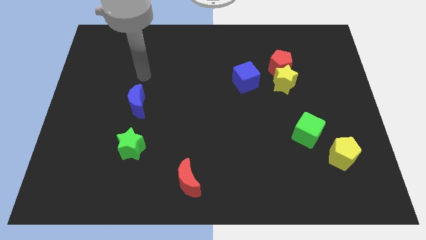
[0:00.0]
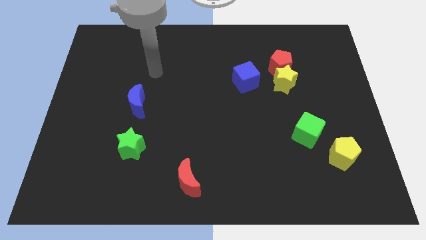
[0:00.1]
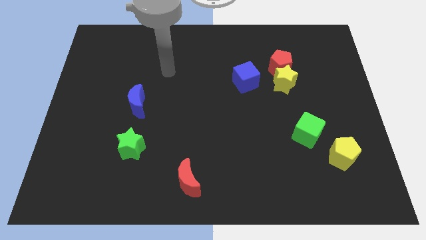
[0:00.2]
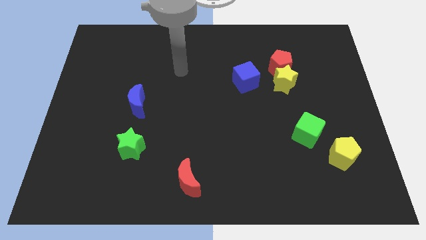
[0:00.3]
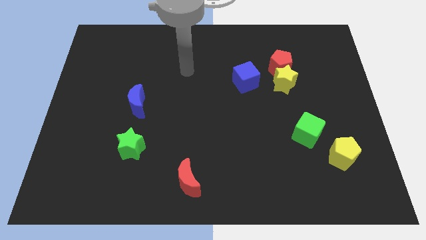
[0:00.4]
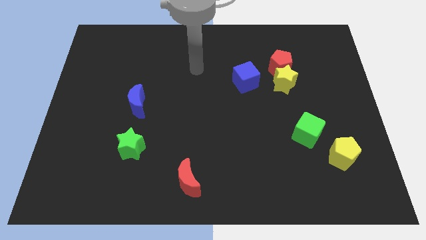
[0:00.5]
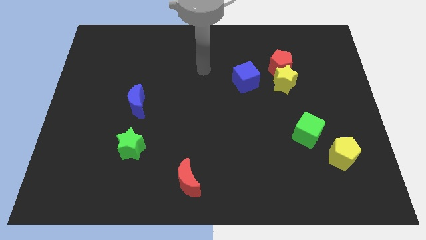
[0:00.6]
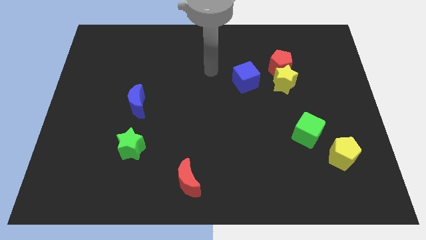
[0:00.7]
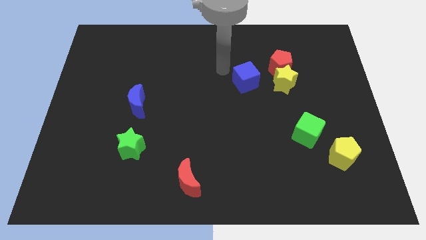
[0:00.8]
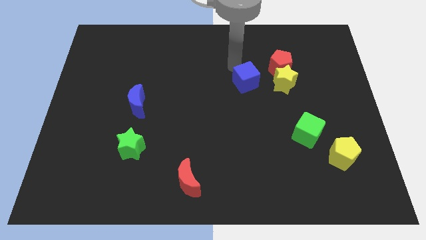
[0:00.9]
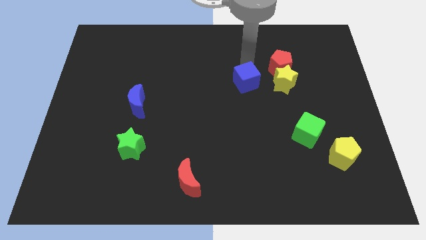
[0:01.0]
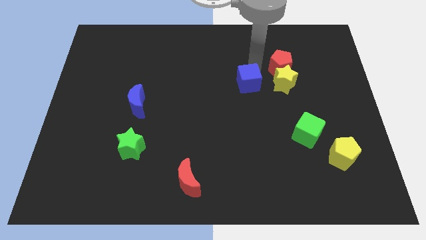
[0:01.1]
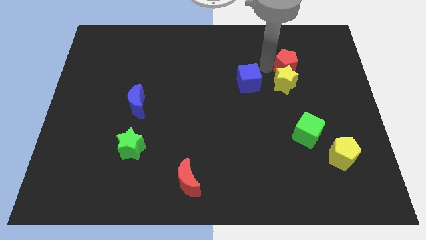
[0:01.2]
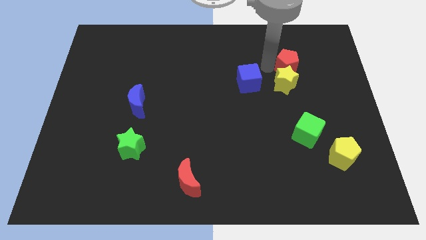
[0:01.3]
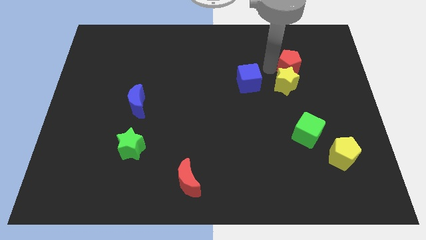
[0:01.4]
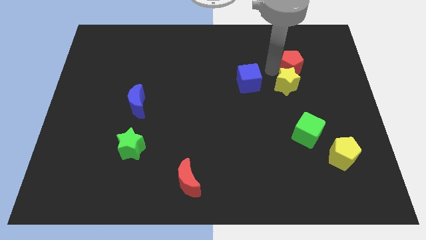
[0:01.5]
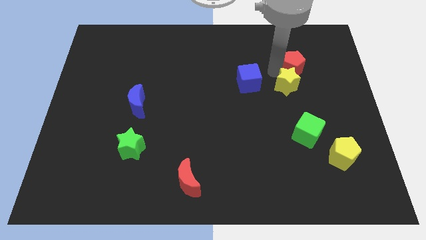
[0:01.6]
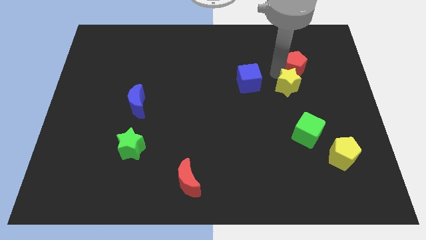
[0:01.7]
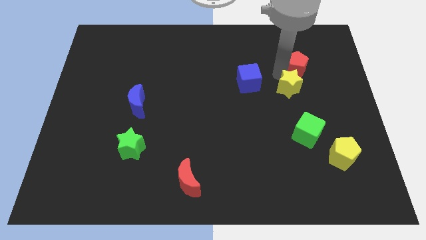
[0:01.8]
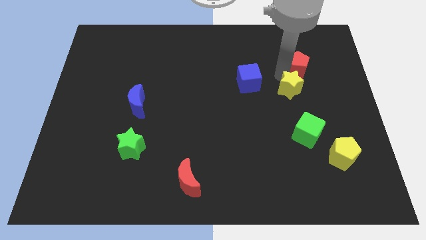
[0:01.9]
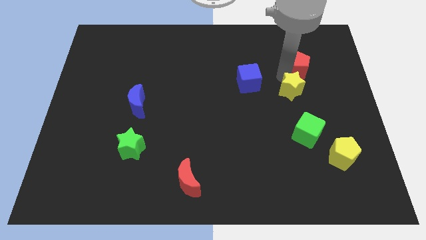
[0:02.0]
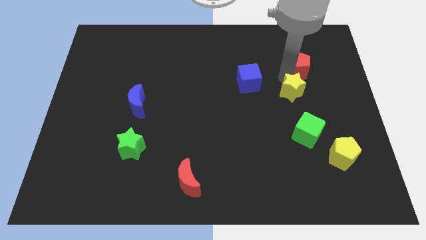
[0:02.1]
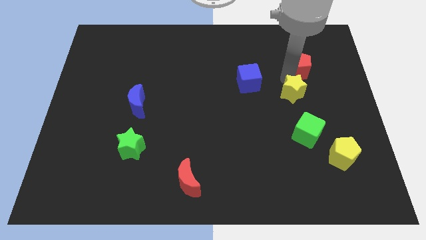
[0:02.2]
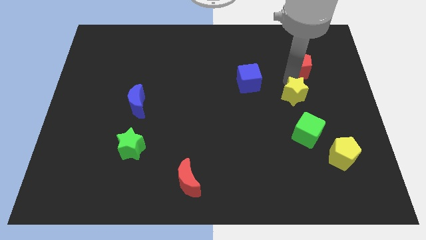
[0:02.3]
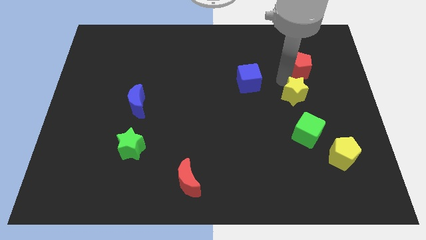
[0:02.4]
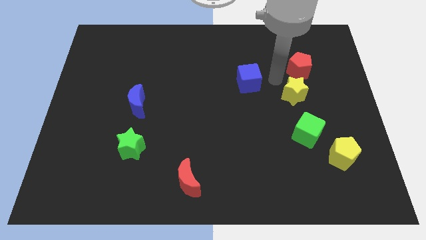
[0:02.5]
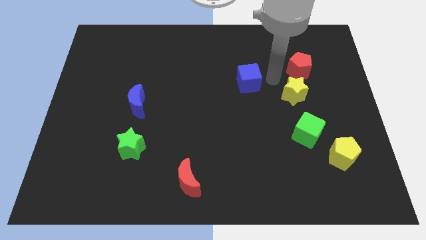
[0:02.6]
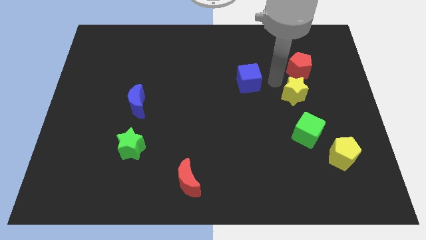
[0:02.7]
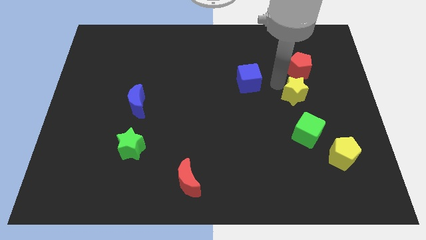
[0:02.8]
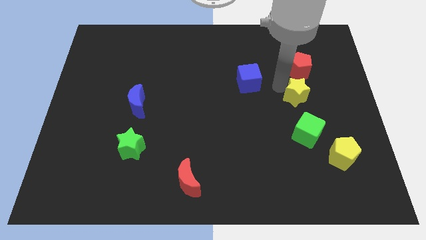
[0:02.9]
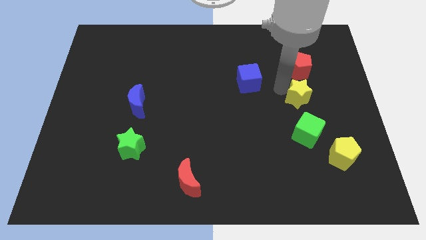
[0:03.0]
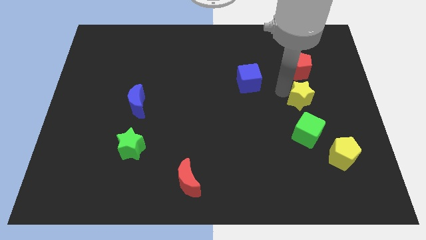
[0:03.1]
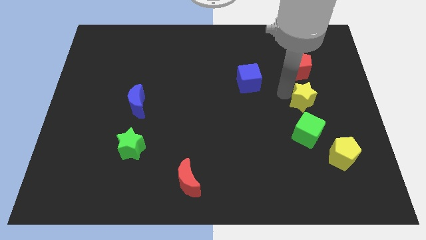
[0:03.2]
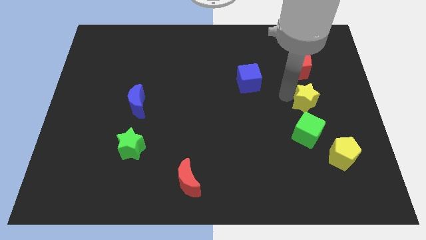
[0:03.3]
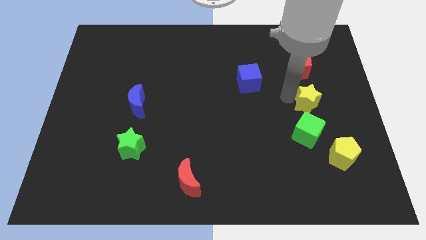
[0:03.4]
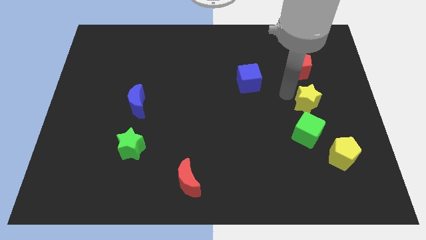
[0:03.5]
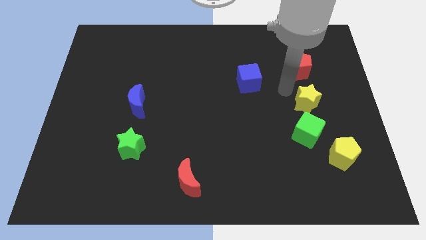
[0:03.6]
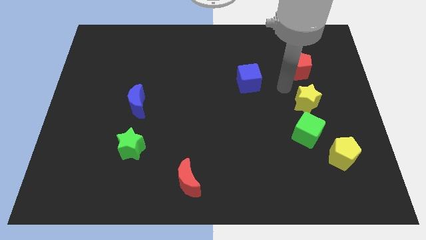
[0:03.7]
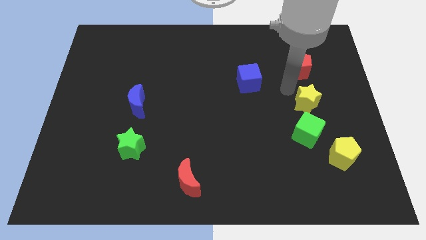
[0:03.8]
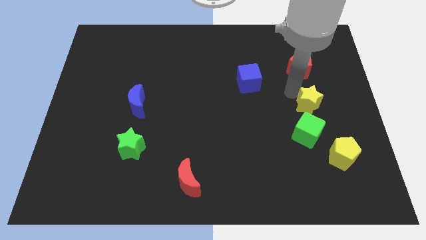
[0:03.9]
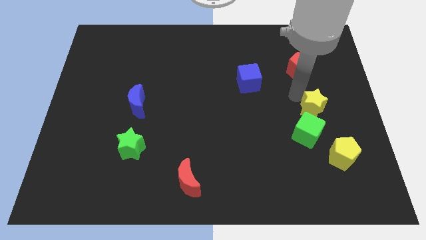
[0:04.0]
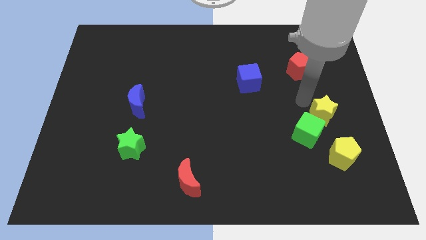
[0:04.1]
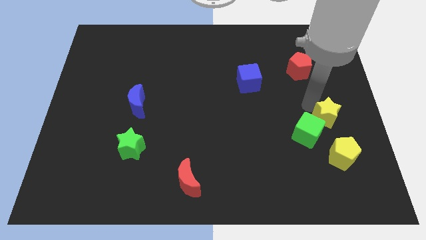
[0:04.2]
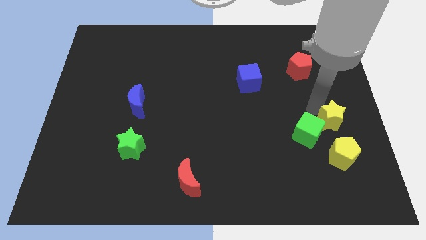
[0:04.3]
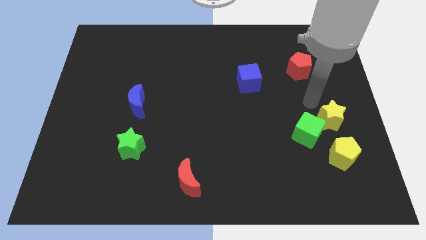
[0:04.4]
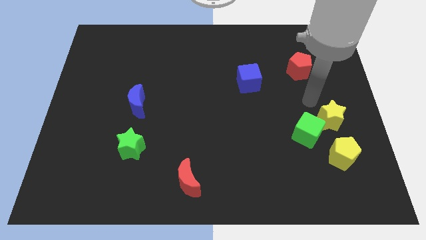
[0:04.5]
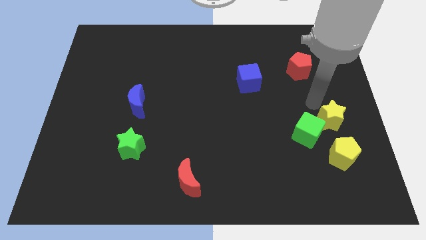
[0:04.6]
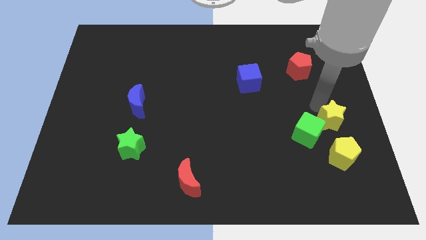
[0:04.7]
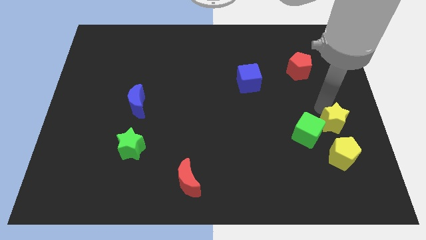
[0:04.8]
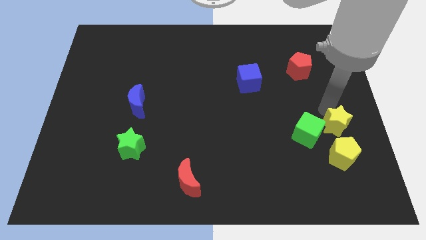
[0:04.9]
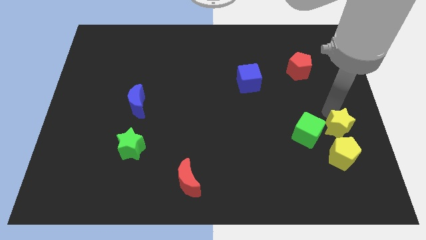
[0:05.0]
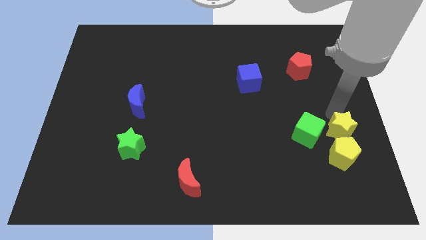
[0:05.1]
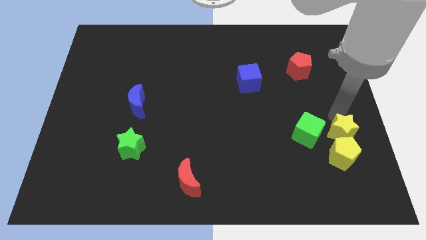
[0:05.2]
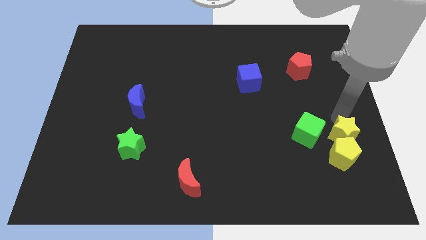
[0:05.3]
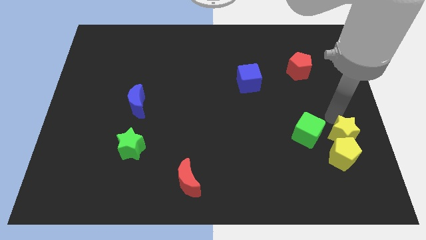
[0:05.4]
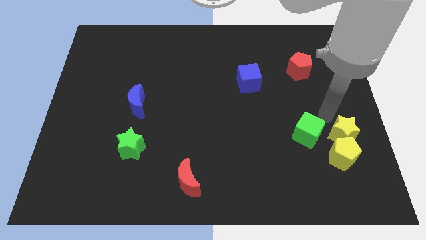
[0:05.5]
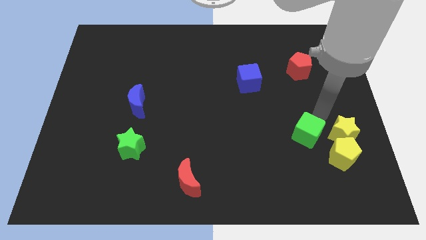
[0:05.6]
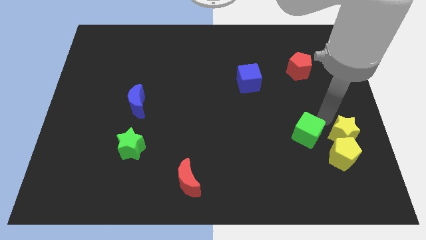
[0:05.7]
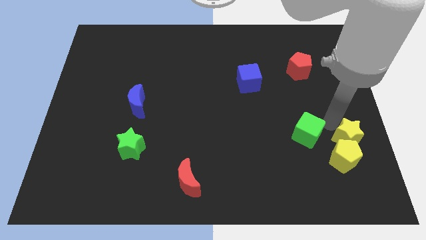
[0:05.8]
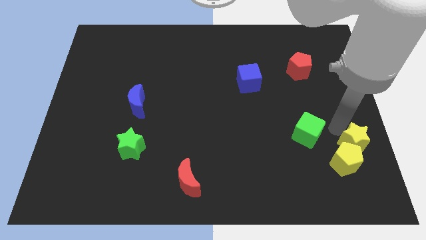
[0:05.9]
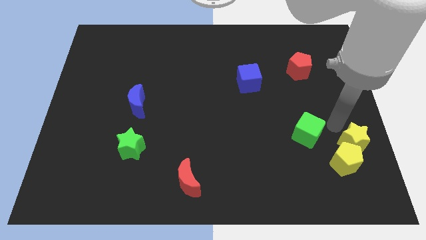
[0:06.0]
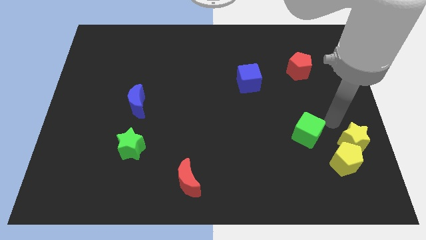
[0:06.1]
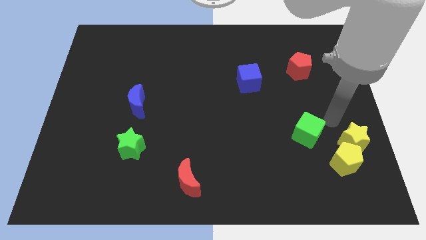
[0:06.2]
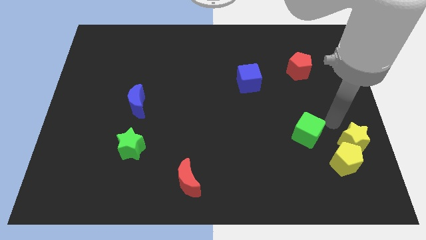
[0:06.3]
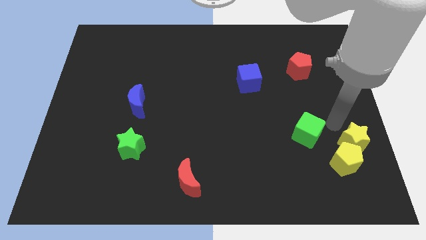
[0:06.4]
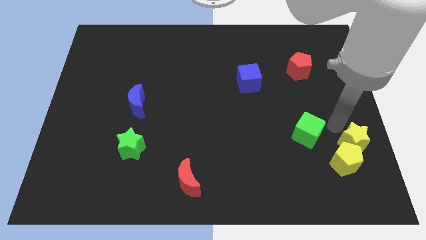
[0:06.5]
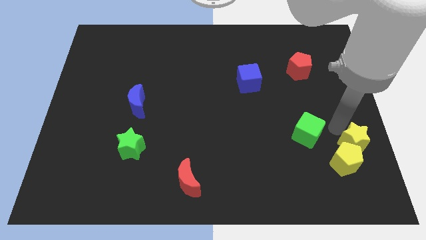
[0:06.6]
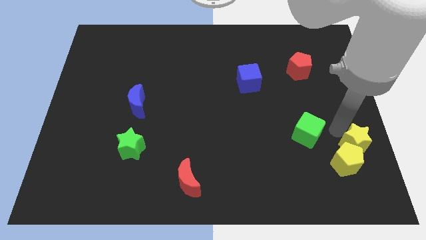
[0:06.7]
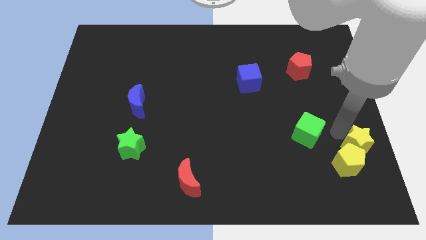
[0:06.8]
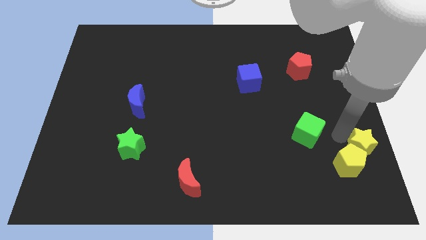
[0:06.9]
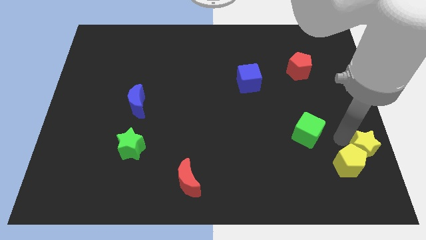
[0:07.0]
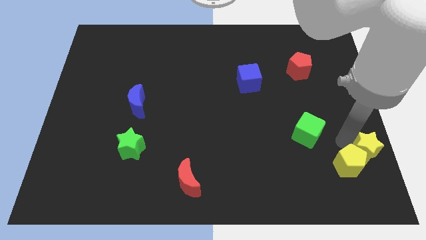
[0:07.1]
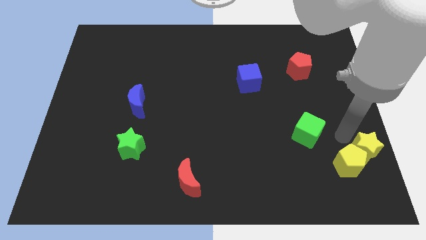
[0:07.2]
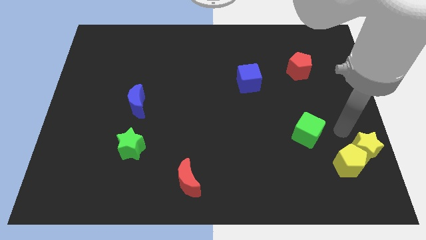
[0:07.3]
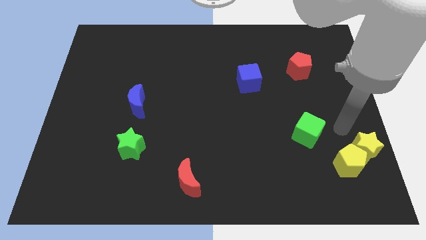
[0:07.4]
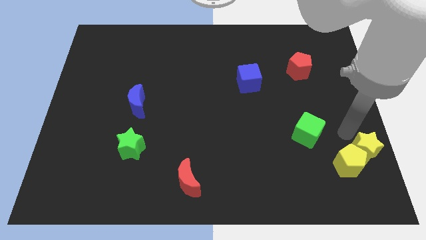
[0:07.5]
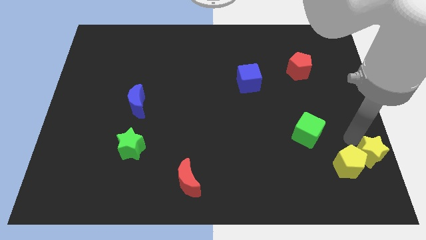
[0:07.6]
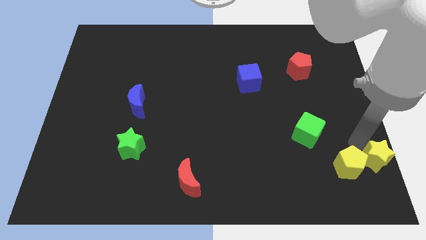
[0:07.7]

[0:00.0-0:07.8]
slide the yellow star to the bottom right
